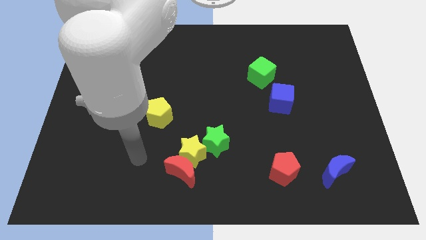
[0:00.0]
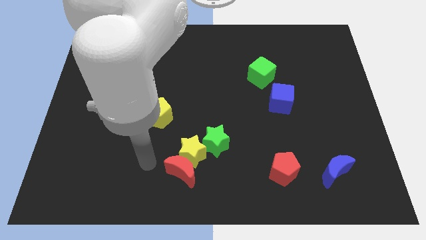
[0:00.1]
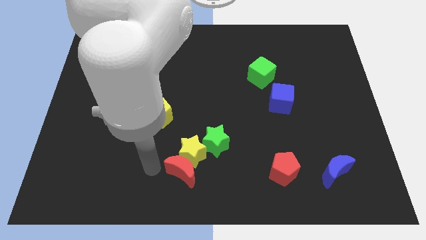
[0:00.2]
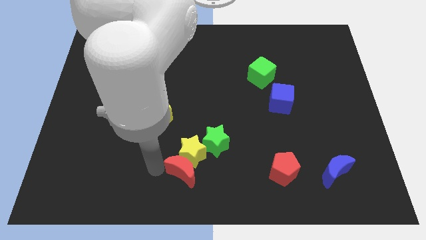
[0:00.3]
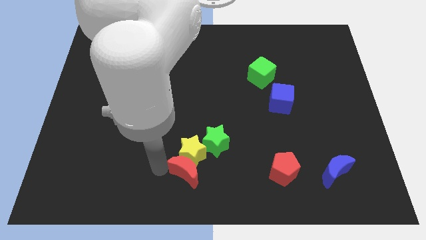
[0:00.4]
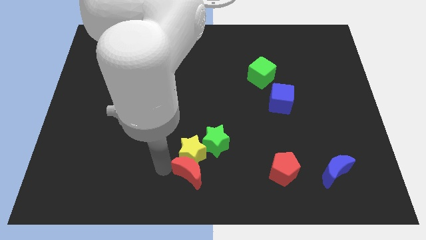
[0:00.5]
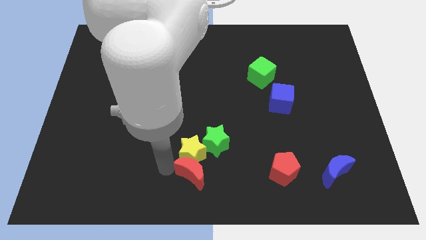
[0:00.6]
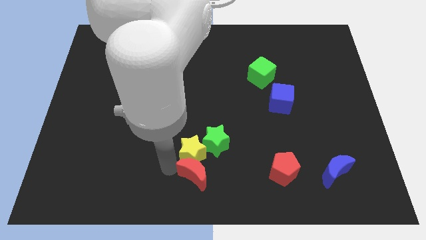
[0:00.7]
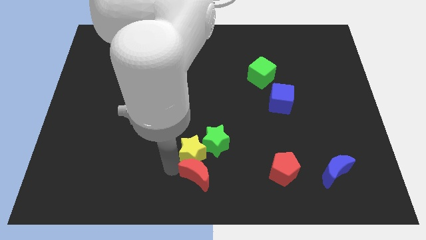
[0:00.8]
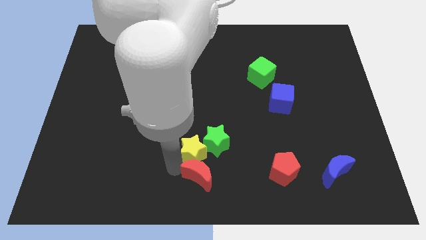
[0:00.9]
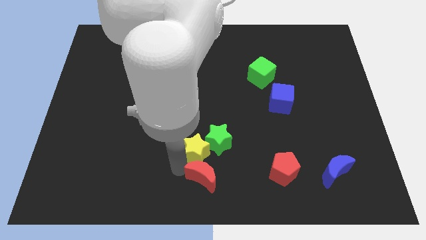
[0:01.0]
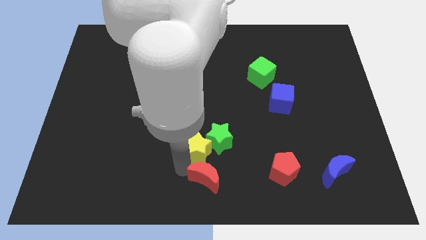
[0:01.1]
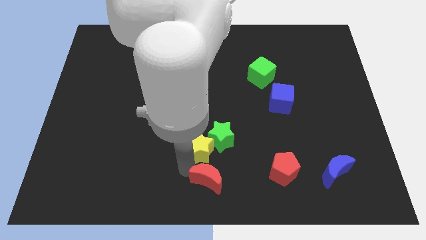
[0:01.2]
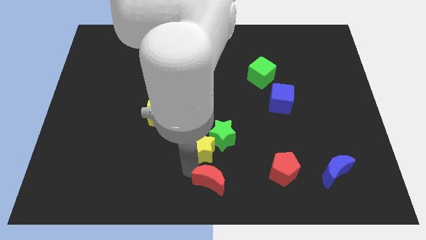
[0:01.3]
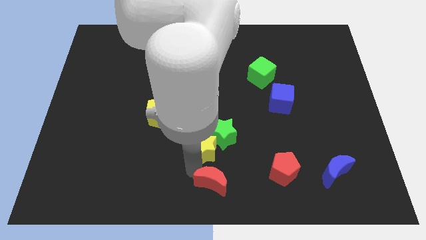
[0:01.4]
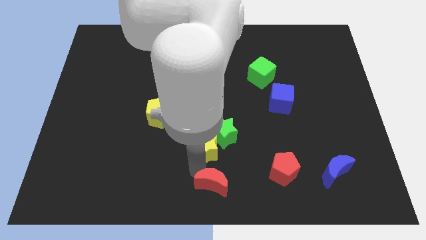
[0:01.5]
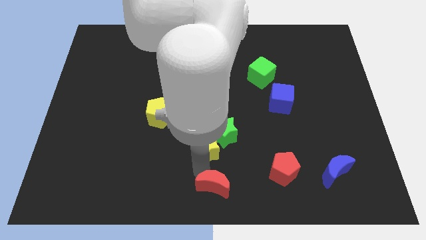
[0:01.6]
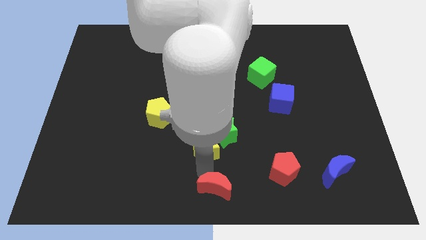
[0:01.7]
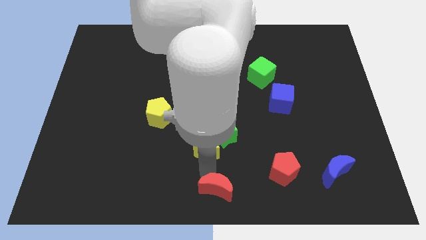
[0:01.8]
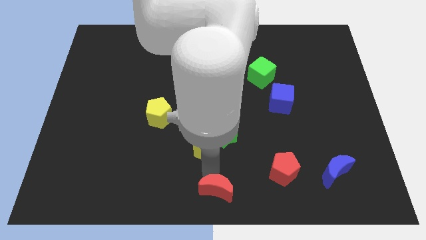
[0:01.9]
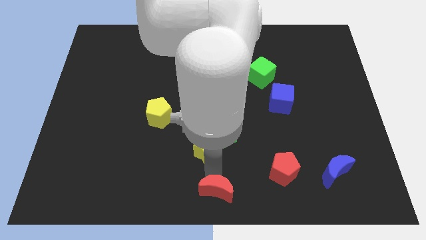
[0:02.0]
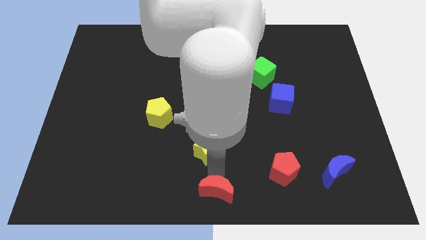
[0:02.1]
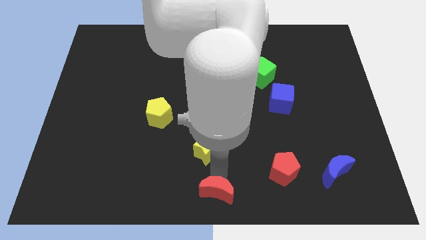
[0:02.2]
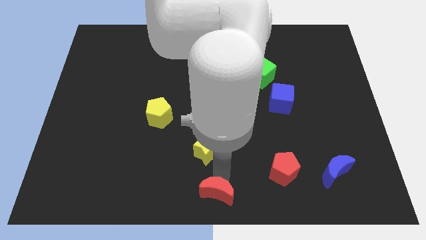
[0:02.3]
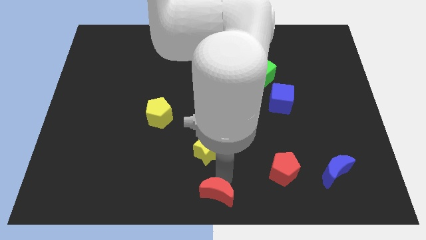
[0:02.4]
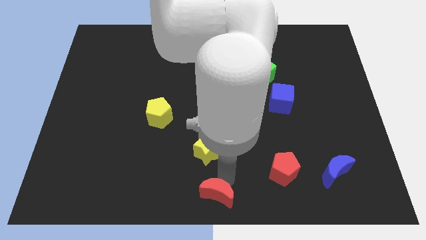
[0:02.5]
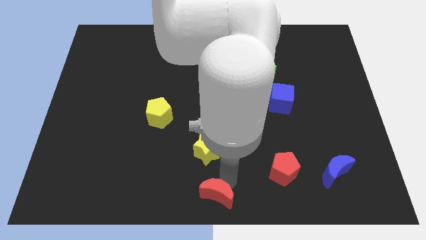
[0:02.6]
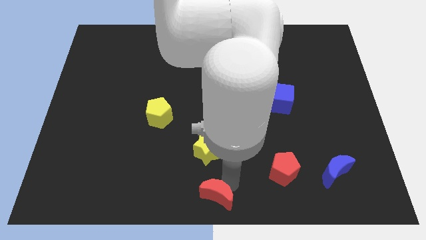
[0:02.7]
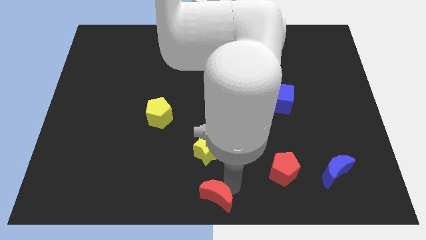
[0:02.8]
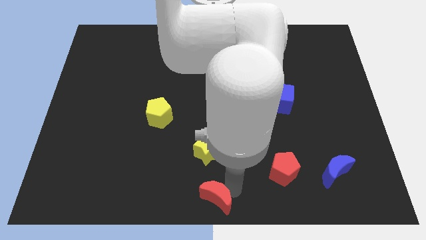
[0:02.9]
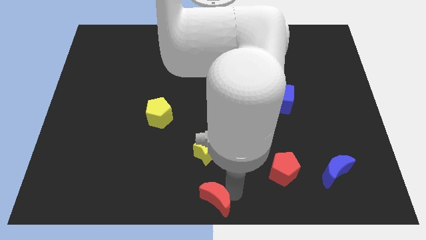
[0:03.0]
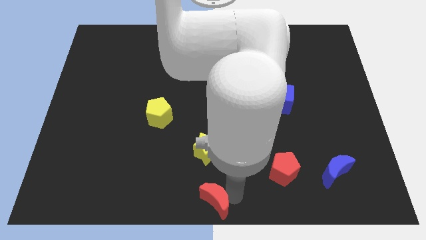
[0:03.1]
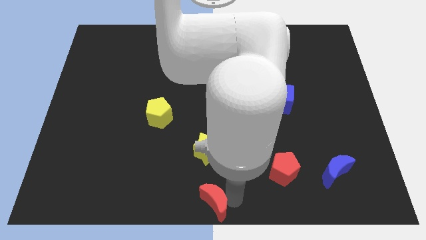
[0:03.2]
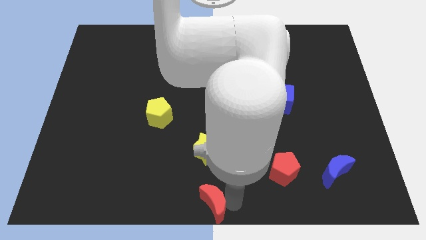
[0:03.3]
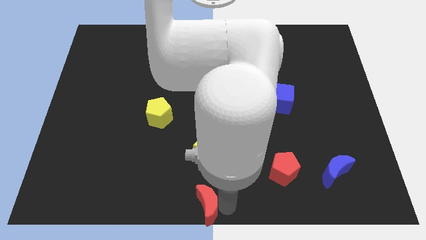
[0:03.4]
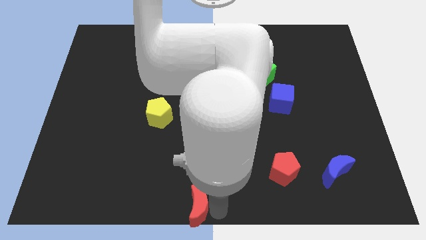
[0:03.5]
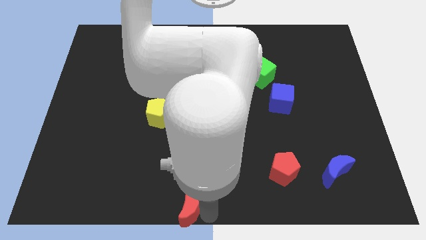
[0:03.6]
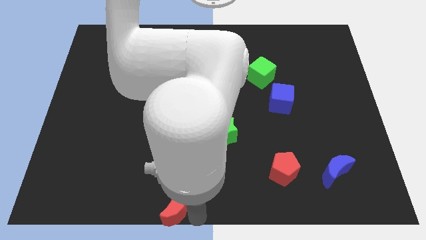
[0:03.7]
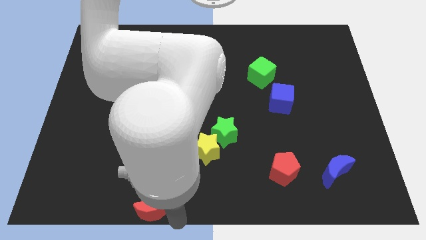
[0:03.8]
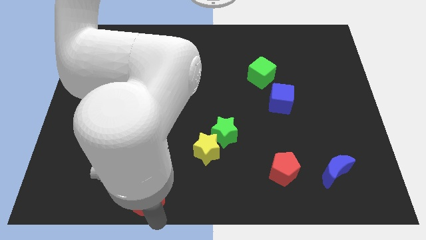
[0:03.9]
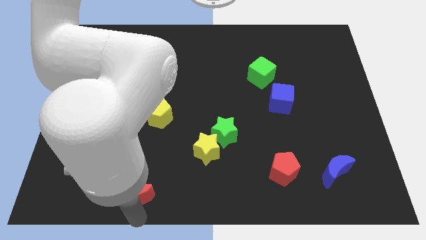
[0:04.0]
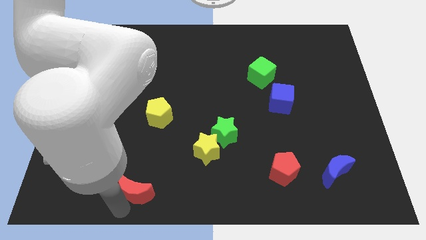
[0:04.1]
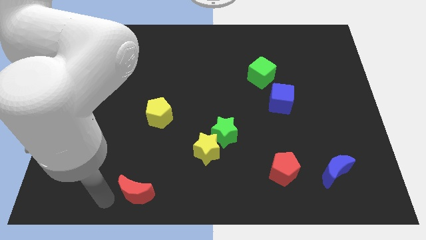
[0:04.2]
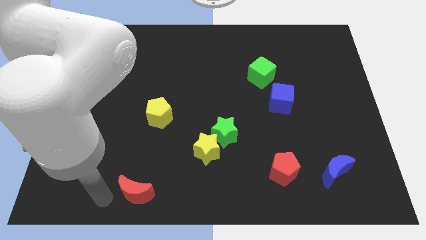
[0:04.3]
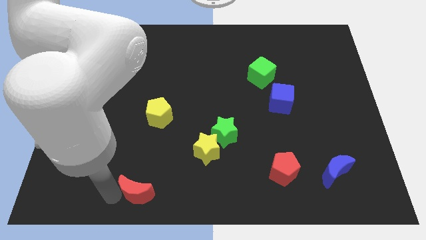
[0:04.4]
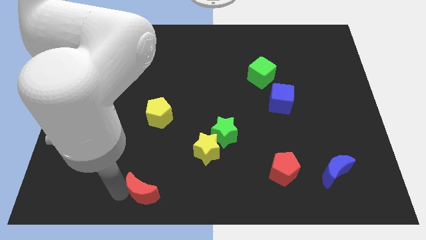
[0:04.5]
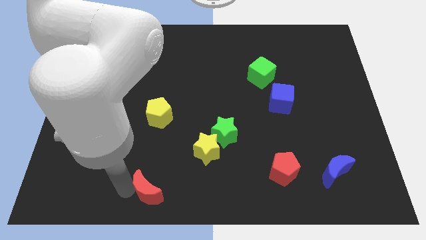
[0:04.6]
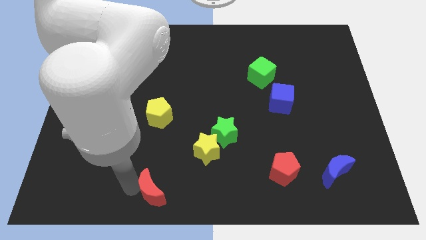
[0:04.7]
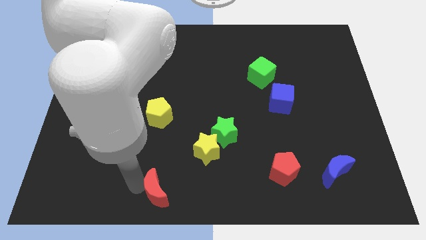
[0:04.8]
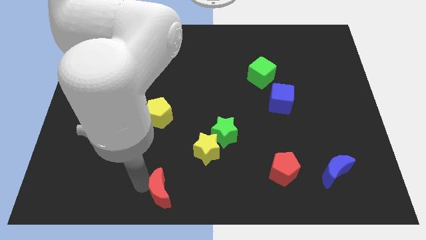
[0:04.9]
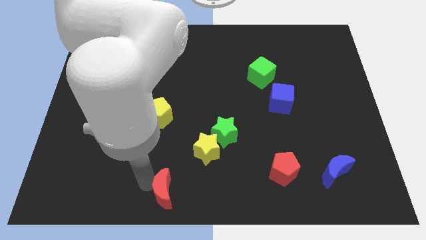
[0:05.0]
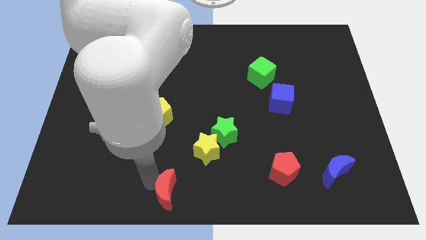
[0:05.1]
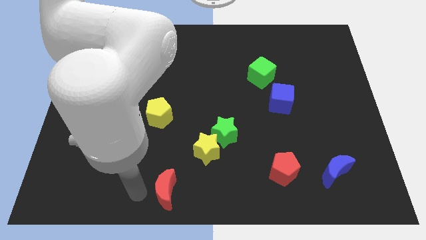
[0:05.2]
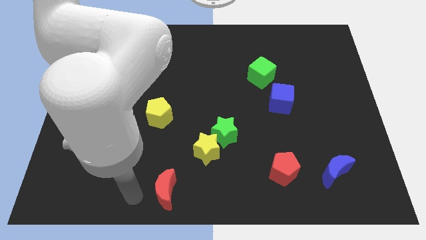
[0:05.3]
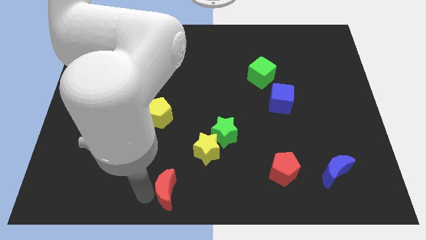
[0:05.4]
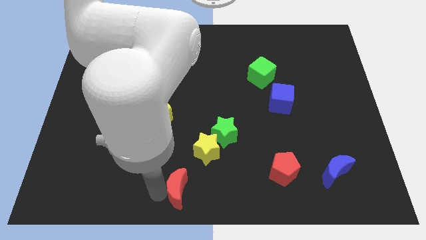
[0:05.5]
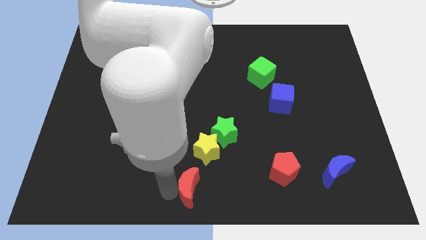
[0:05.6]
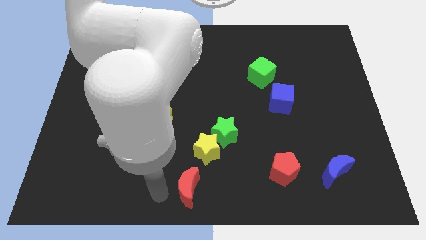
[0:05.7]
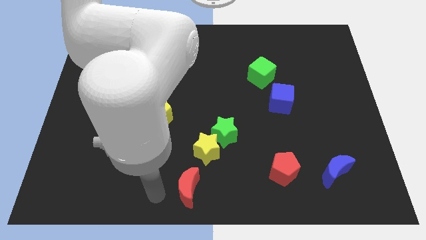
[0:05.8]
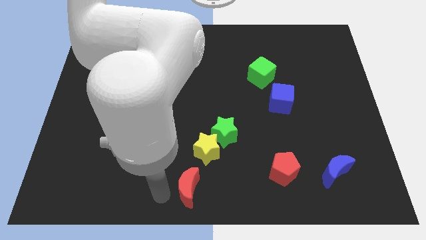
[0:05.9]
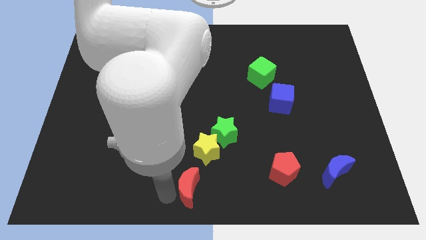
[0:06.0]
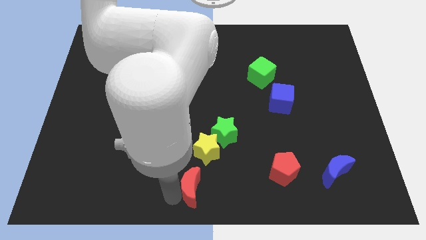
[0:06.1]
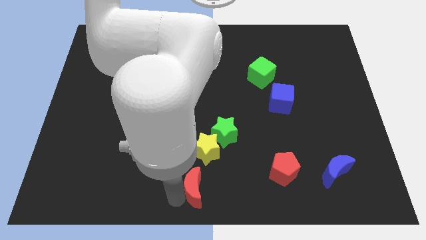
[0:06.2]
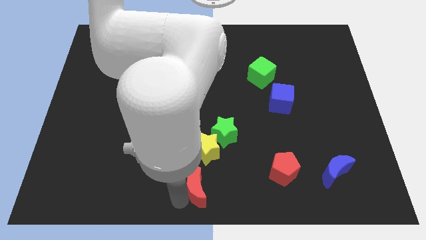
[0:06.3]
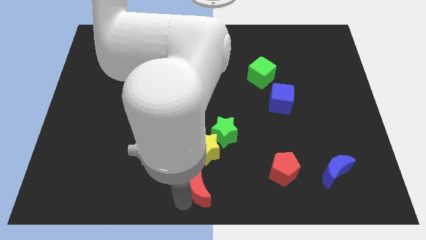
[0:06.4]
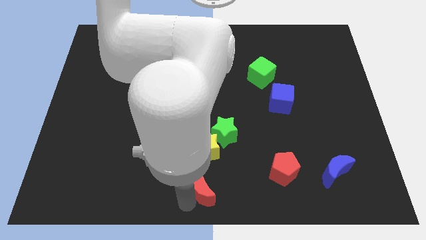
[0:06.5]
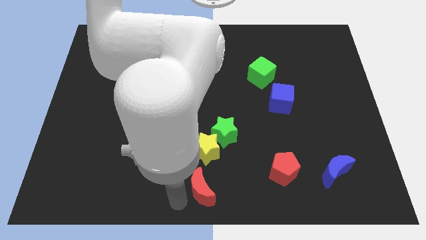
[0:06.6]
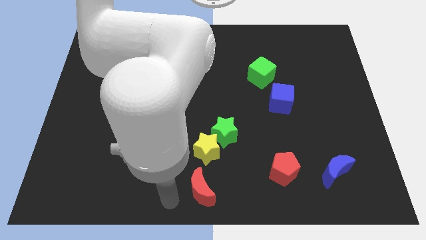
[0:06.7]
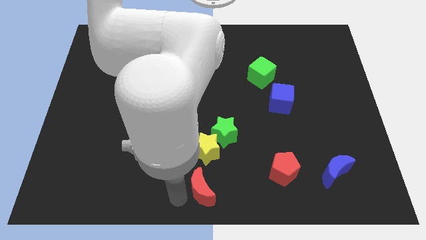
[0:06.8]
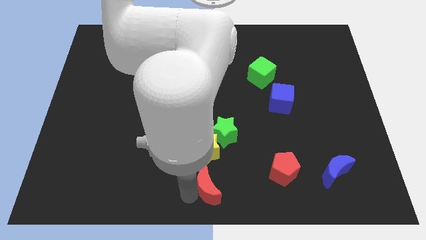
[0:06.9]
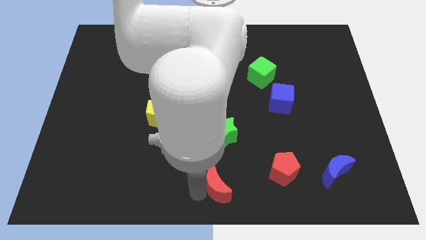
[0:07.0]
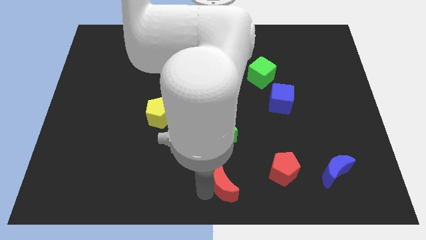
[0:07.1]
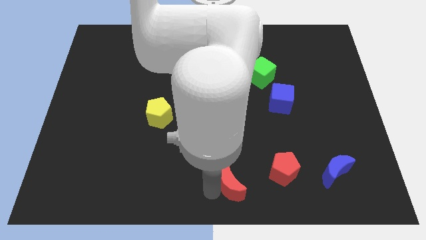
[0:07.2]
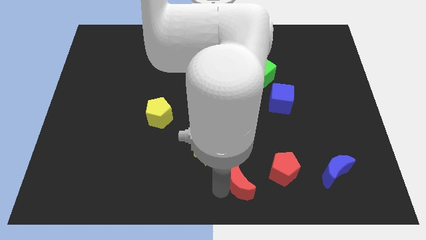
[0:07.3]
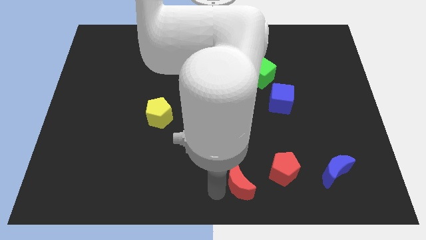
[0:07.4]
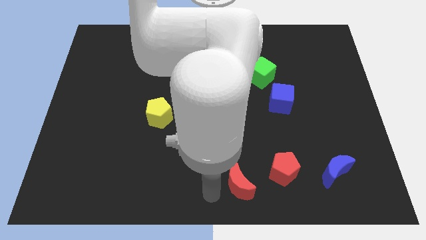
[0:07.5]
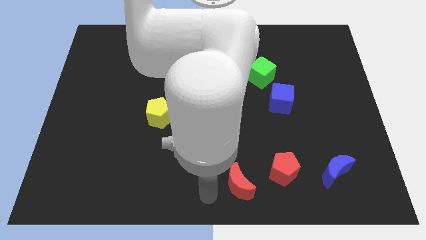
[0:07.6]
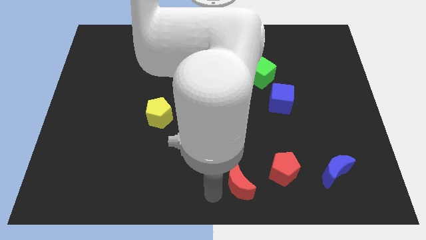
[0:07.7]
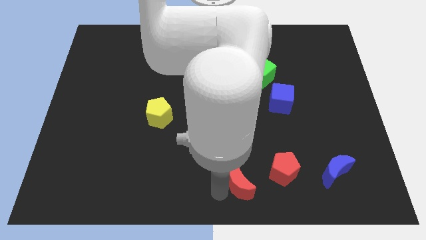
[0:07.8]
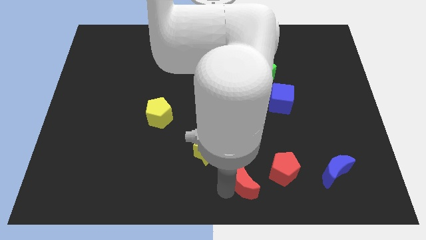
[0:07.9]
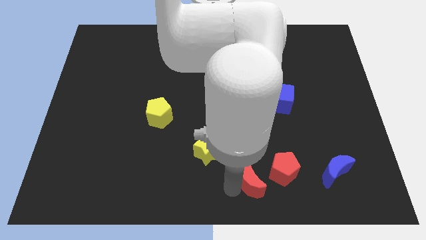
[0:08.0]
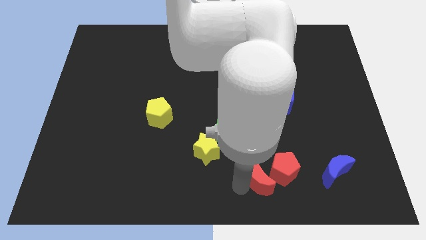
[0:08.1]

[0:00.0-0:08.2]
move the red moon next to the red pentagon
